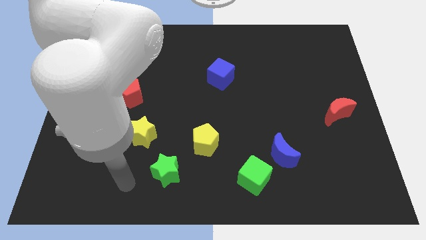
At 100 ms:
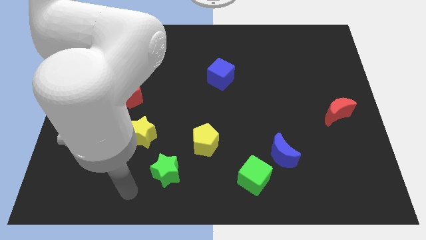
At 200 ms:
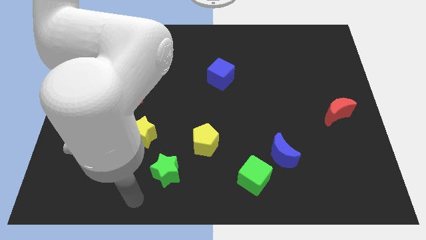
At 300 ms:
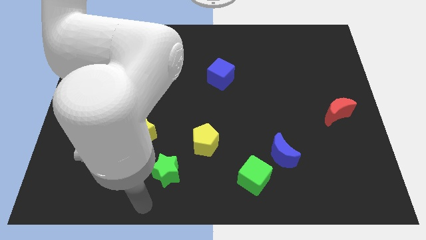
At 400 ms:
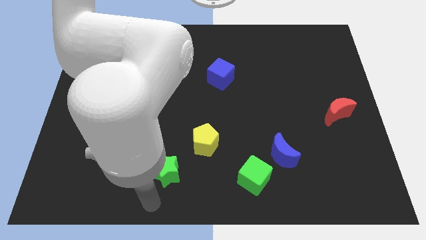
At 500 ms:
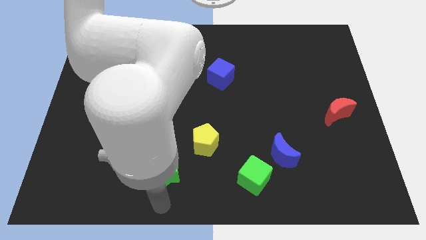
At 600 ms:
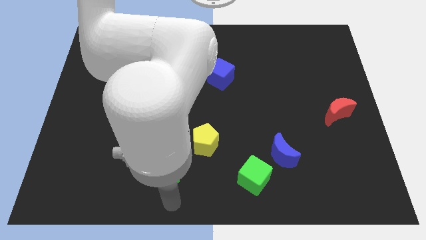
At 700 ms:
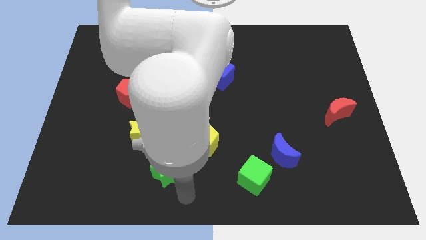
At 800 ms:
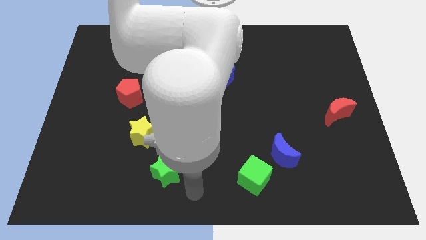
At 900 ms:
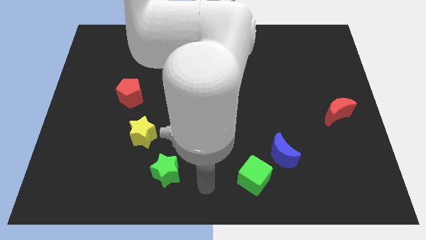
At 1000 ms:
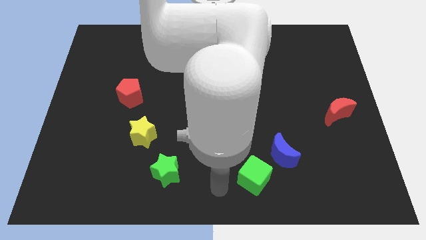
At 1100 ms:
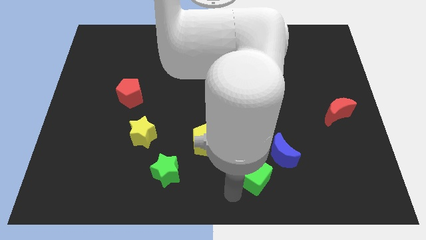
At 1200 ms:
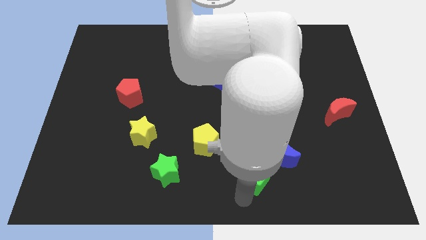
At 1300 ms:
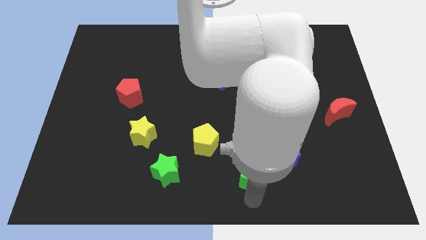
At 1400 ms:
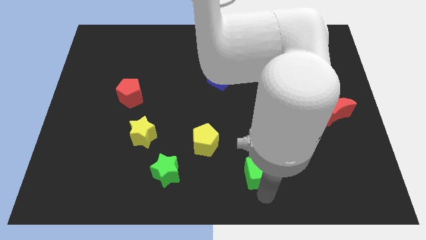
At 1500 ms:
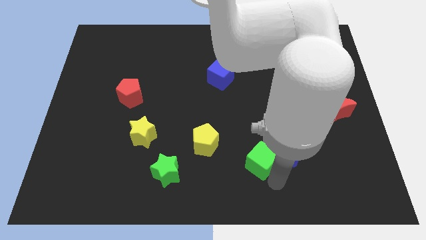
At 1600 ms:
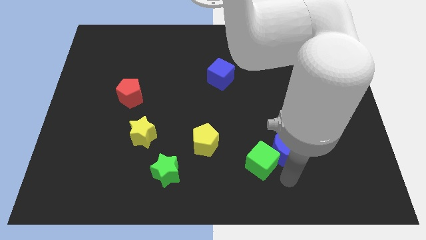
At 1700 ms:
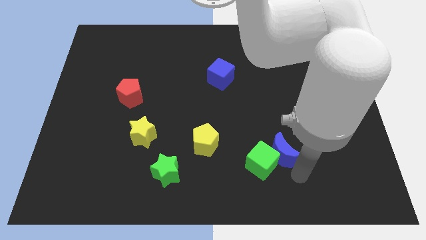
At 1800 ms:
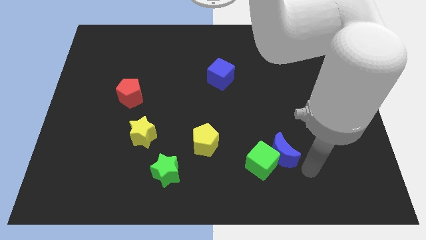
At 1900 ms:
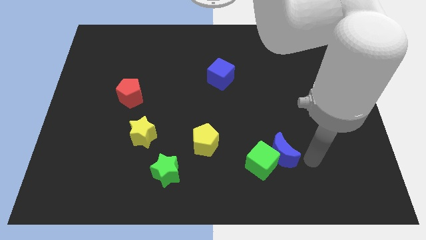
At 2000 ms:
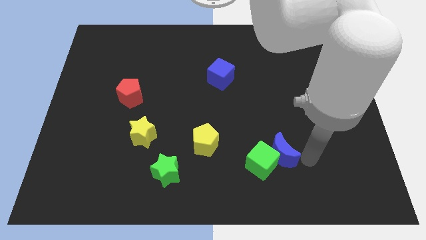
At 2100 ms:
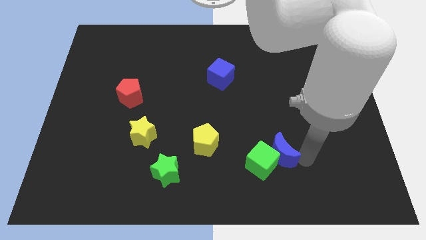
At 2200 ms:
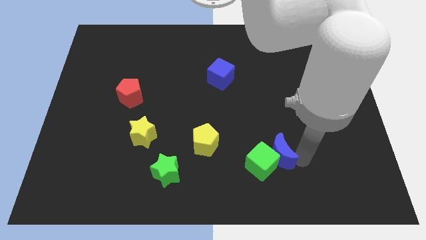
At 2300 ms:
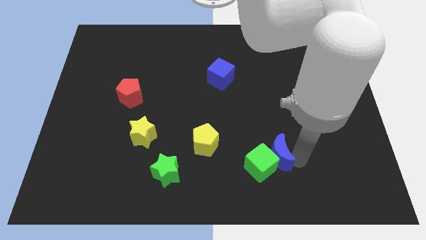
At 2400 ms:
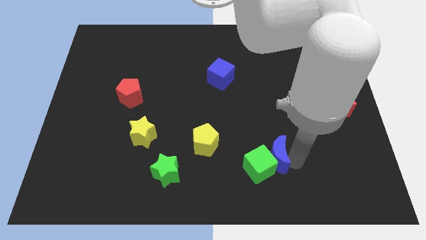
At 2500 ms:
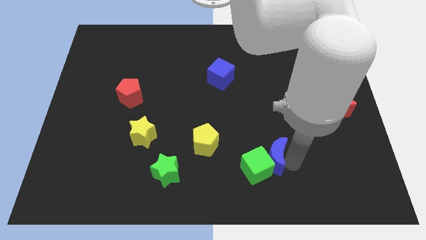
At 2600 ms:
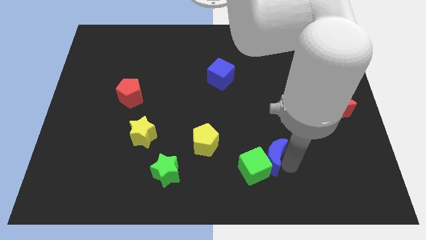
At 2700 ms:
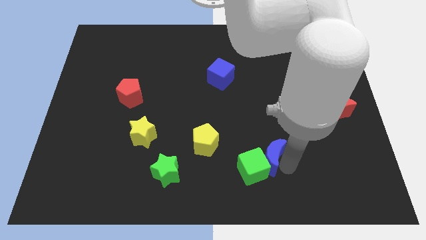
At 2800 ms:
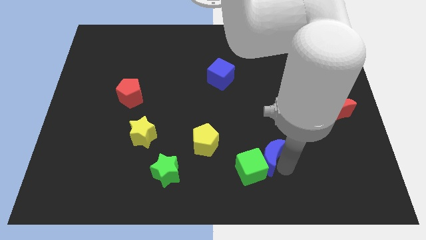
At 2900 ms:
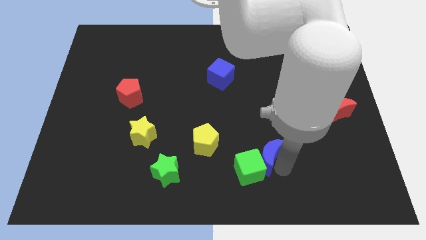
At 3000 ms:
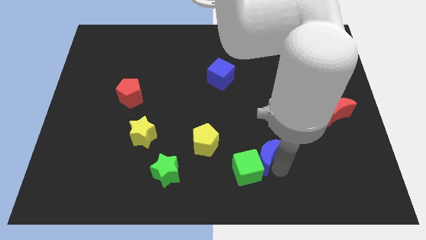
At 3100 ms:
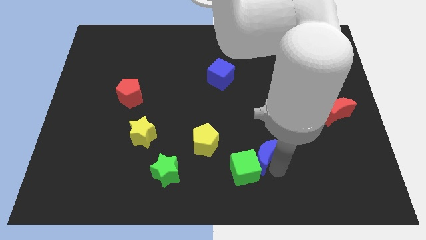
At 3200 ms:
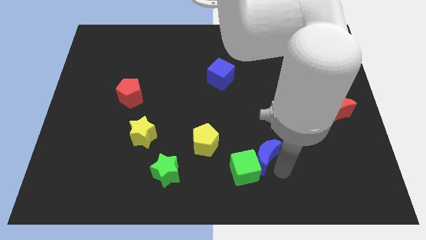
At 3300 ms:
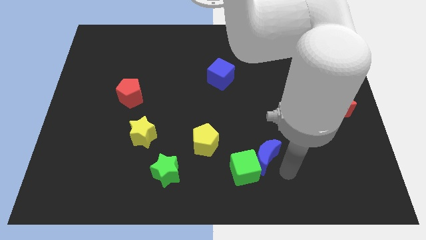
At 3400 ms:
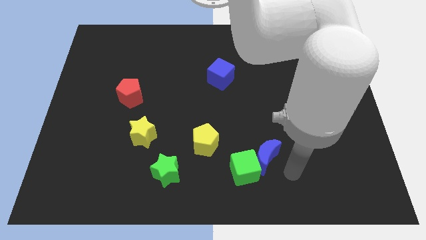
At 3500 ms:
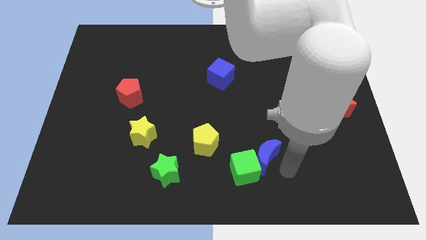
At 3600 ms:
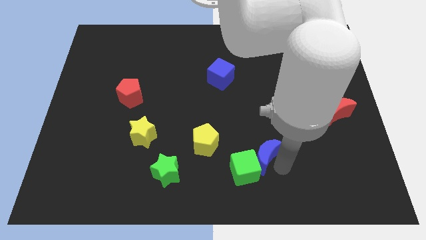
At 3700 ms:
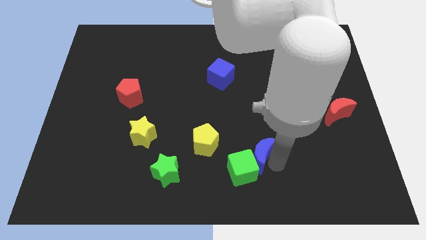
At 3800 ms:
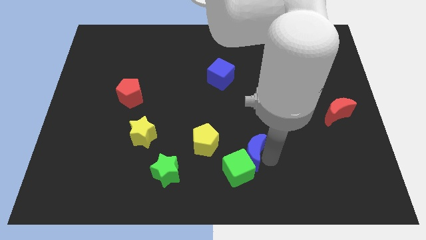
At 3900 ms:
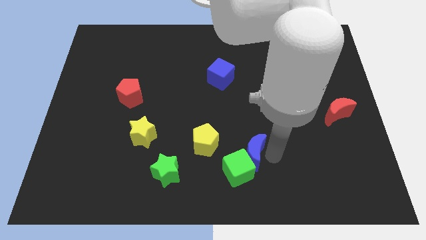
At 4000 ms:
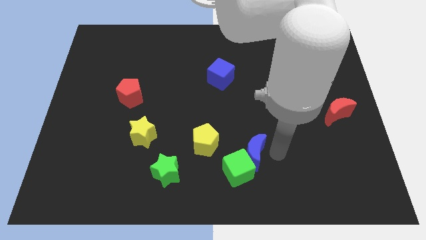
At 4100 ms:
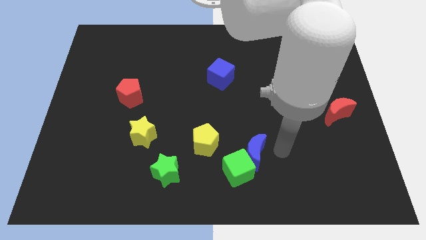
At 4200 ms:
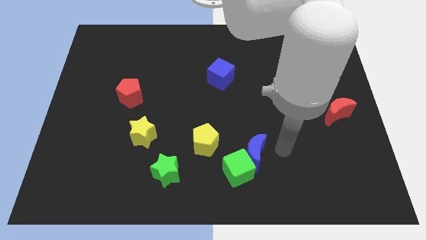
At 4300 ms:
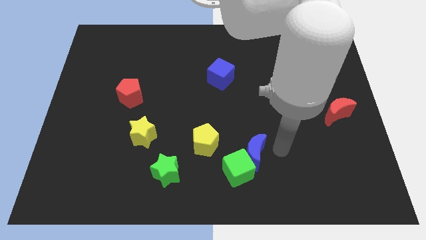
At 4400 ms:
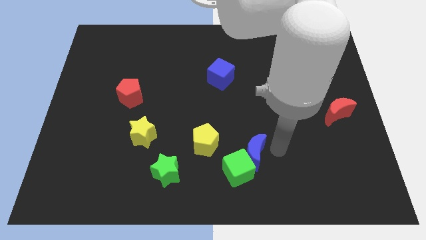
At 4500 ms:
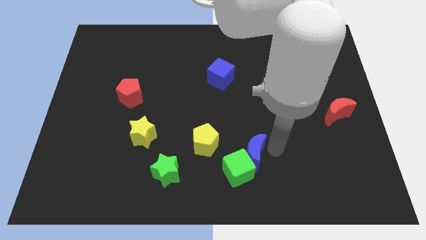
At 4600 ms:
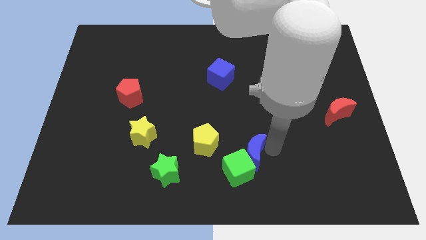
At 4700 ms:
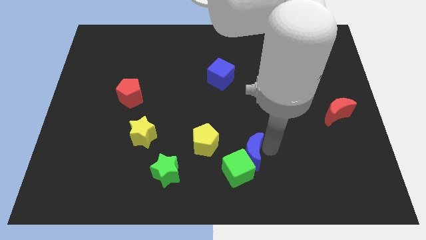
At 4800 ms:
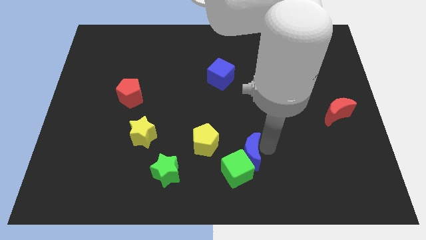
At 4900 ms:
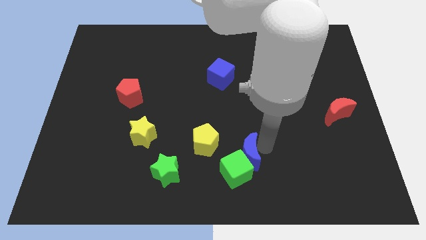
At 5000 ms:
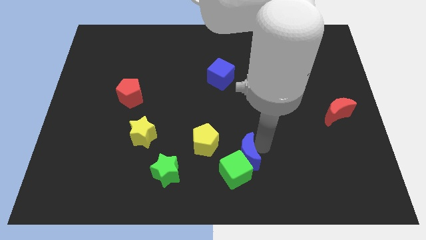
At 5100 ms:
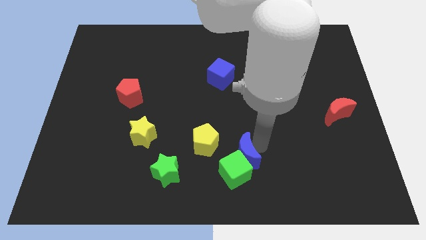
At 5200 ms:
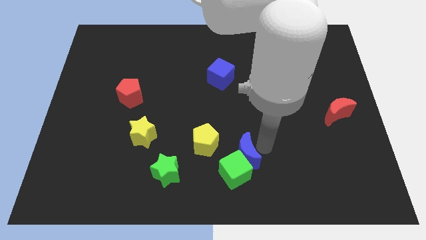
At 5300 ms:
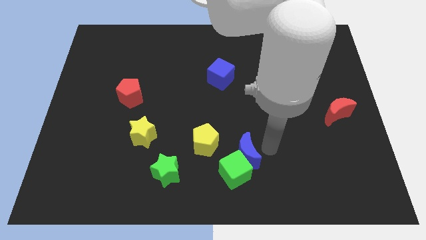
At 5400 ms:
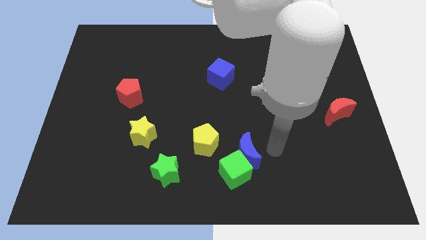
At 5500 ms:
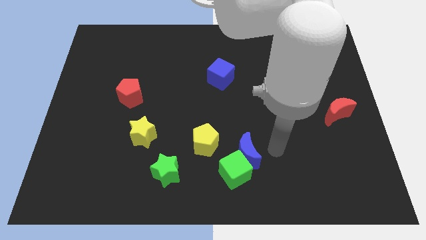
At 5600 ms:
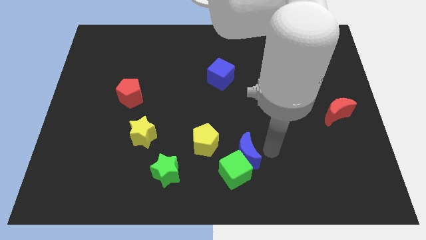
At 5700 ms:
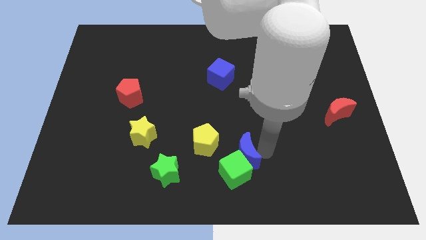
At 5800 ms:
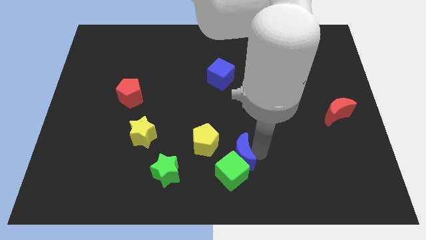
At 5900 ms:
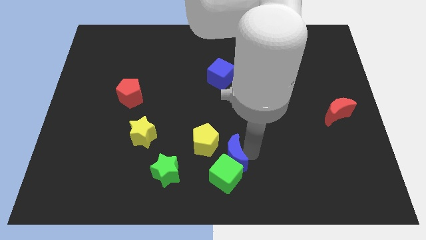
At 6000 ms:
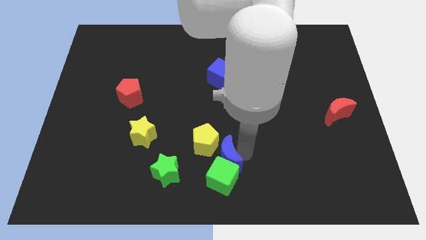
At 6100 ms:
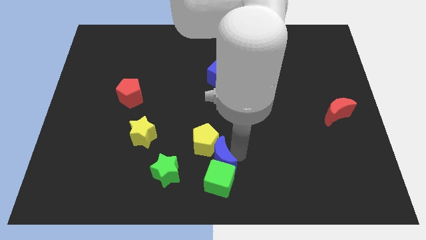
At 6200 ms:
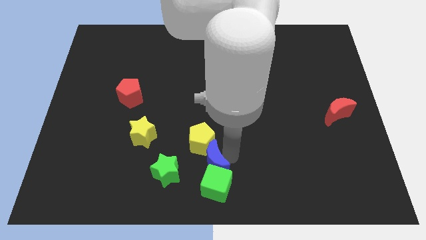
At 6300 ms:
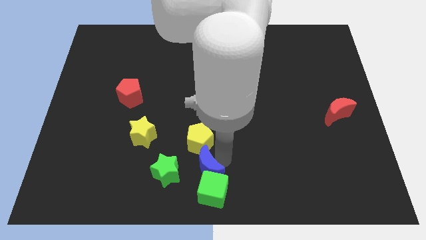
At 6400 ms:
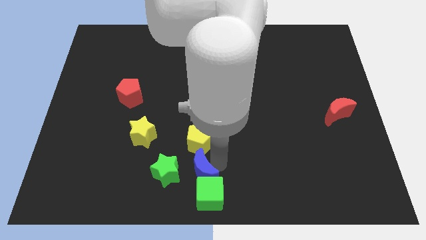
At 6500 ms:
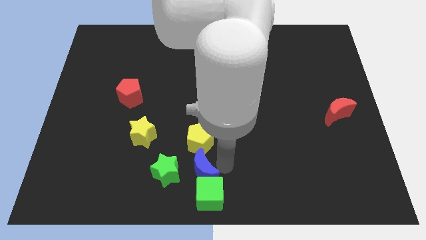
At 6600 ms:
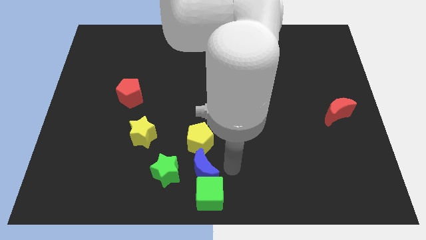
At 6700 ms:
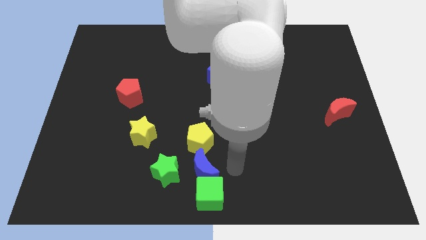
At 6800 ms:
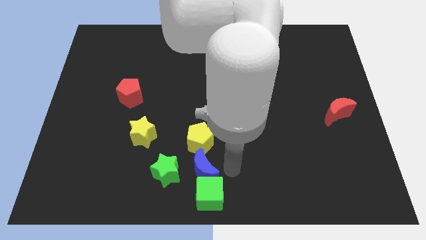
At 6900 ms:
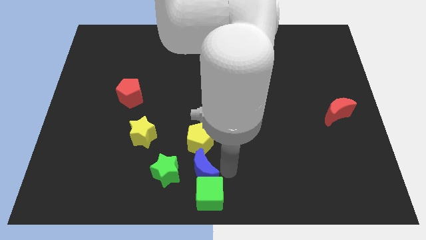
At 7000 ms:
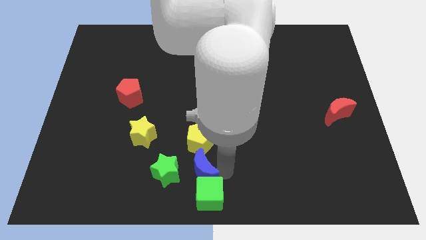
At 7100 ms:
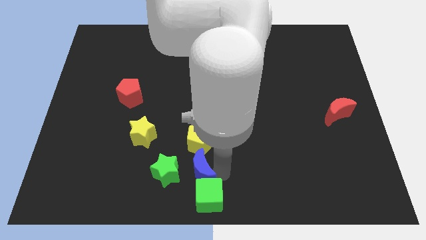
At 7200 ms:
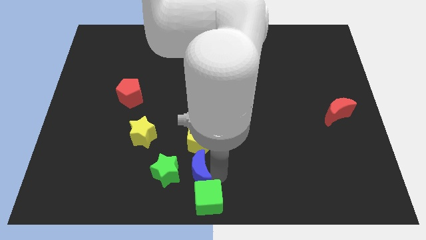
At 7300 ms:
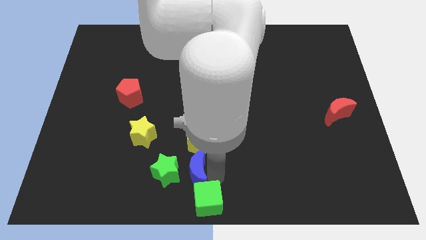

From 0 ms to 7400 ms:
put the blue moon next to the green star
